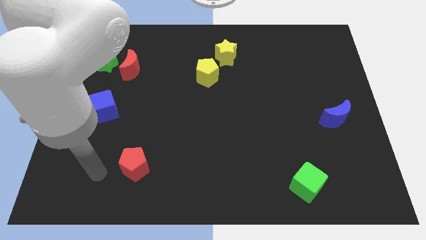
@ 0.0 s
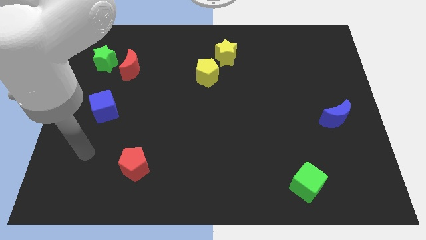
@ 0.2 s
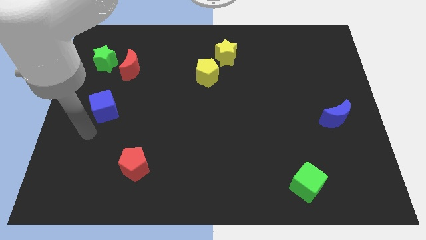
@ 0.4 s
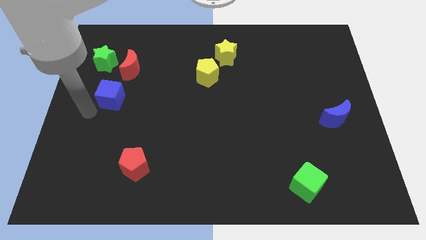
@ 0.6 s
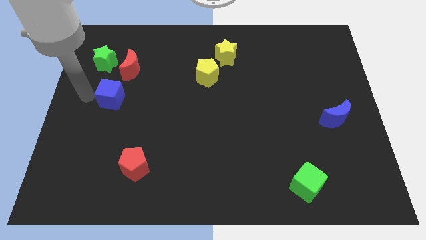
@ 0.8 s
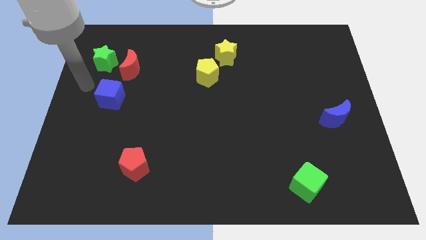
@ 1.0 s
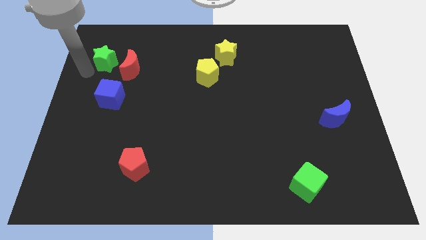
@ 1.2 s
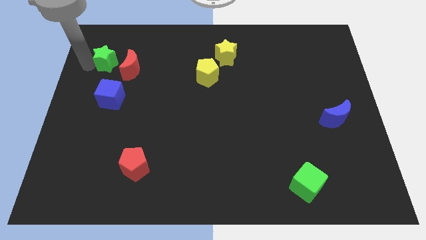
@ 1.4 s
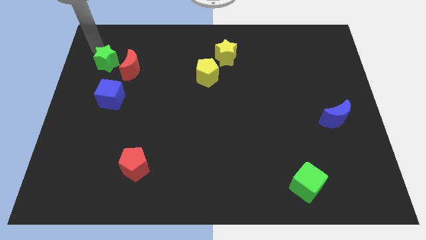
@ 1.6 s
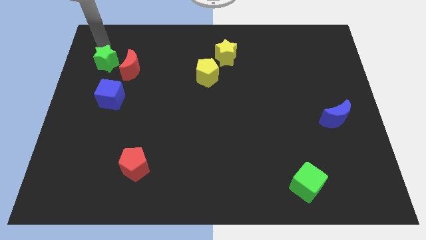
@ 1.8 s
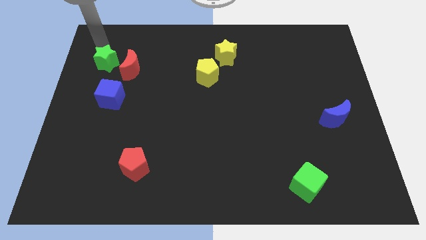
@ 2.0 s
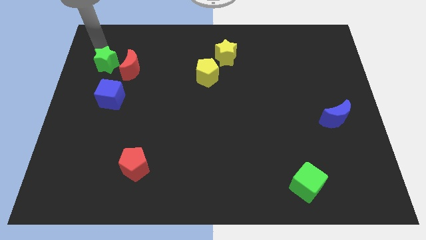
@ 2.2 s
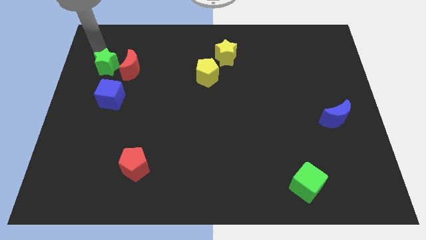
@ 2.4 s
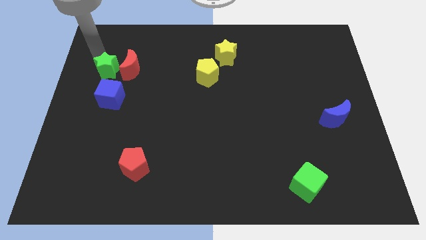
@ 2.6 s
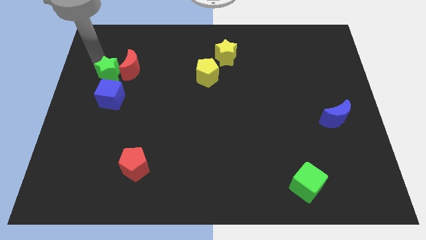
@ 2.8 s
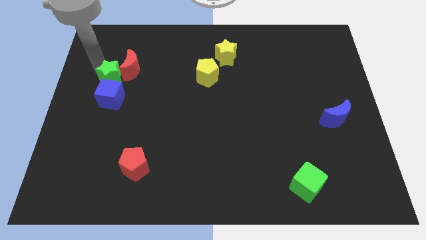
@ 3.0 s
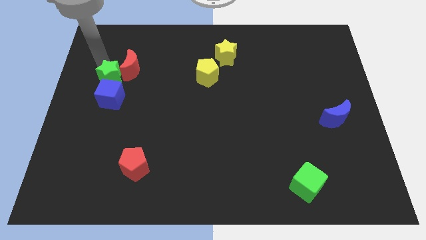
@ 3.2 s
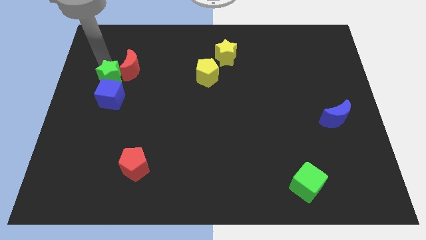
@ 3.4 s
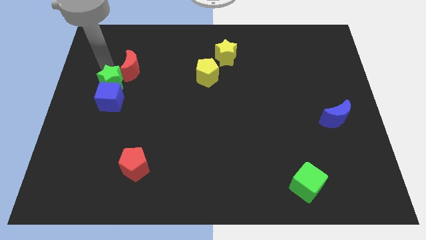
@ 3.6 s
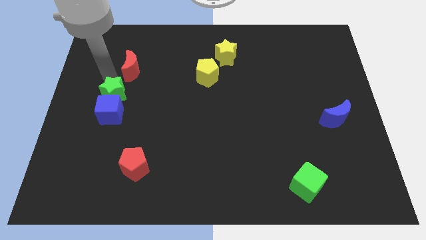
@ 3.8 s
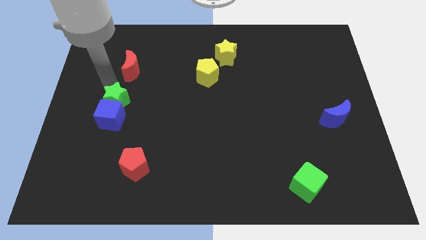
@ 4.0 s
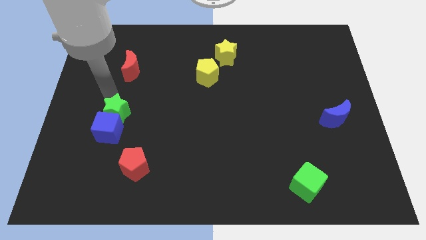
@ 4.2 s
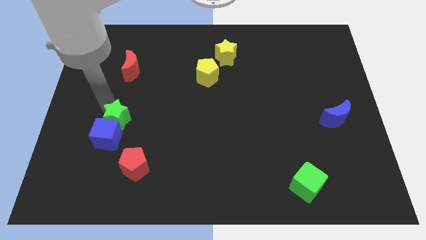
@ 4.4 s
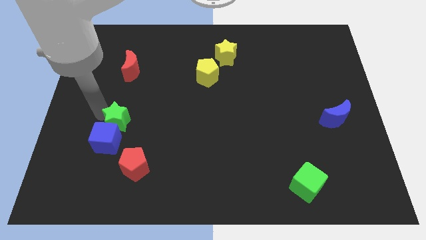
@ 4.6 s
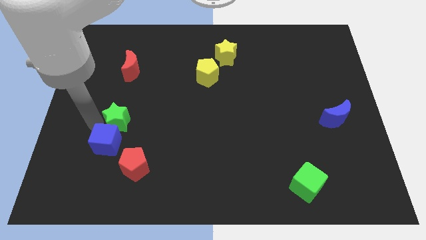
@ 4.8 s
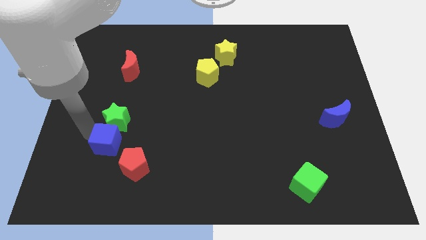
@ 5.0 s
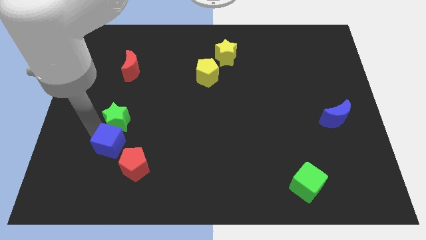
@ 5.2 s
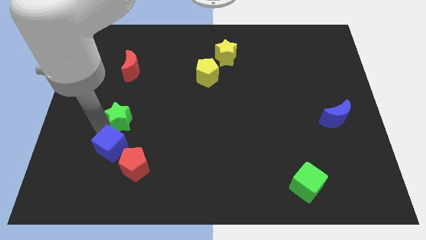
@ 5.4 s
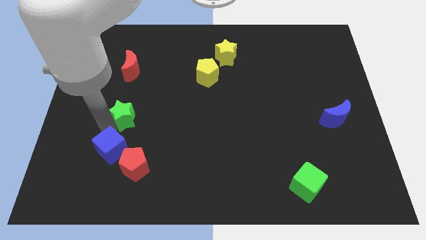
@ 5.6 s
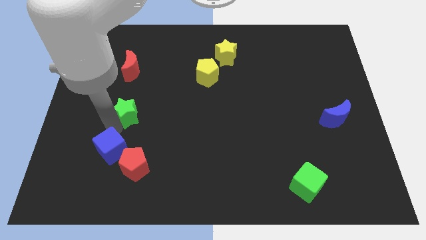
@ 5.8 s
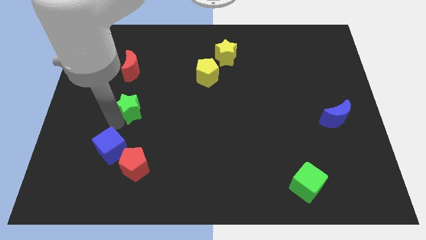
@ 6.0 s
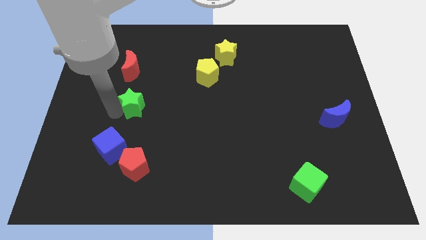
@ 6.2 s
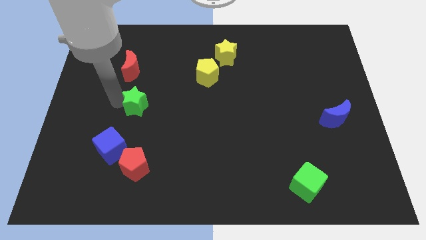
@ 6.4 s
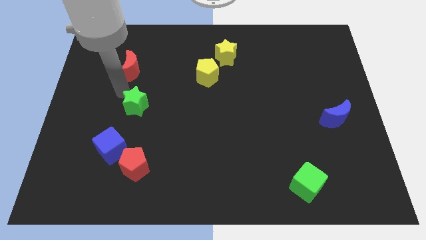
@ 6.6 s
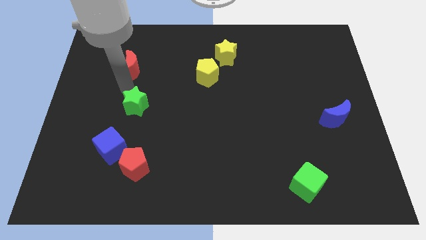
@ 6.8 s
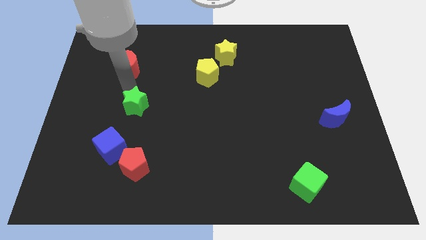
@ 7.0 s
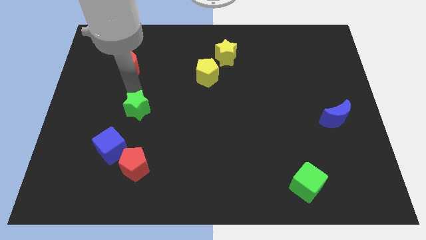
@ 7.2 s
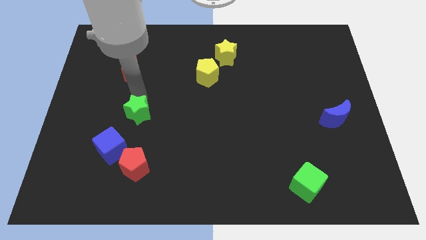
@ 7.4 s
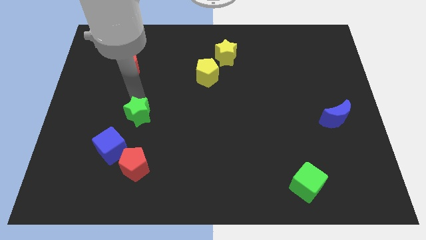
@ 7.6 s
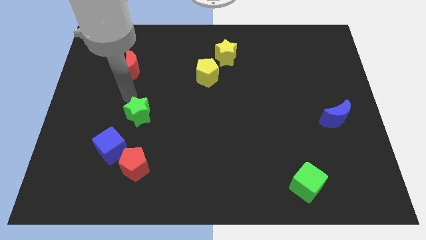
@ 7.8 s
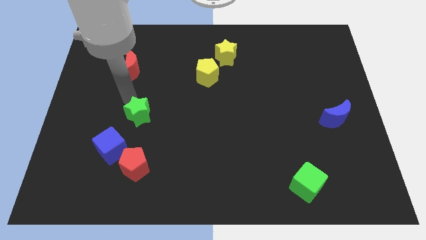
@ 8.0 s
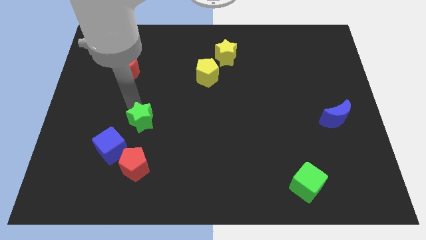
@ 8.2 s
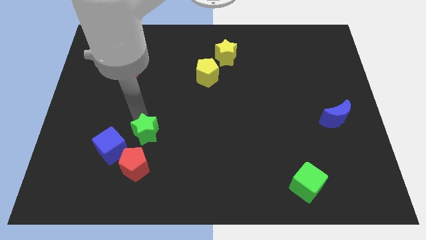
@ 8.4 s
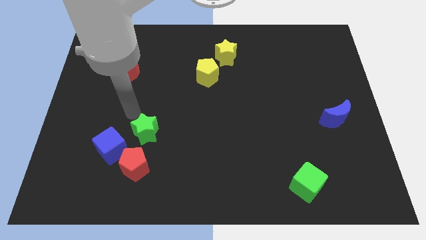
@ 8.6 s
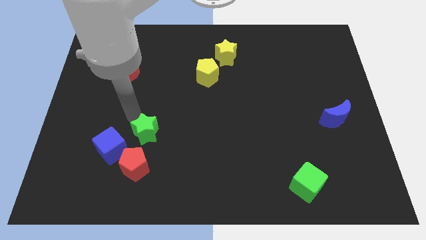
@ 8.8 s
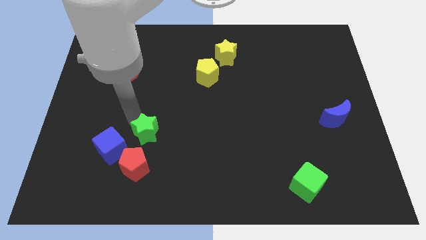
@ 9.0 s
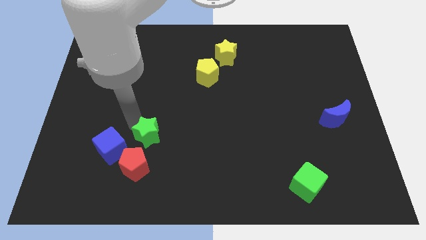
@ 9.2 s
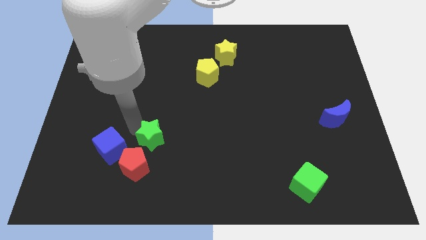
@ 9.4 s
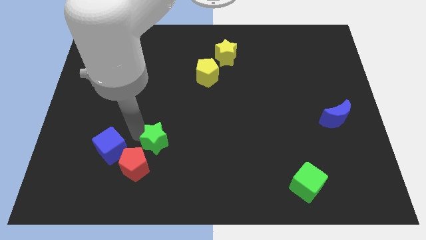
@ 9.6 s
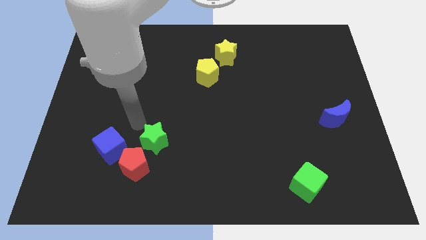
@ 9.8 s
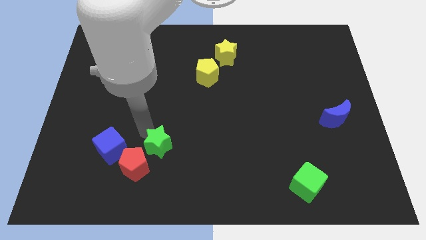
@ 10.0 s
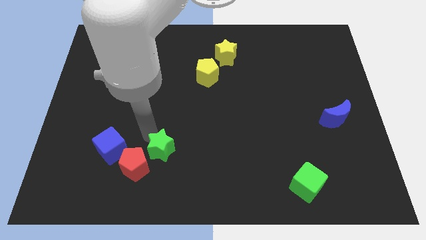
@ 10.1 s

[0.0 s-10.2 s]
move the green star right of the red pentagon

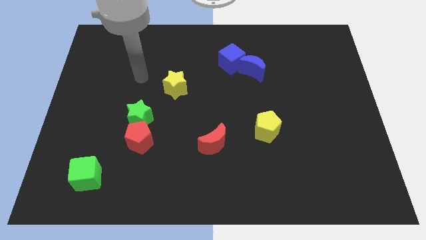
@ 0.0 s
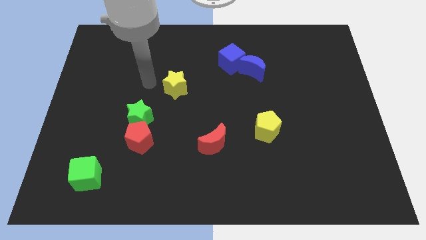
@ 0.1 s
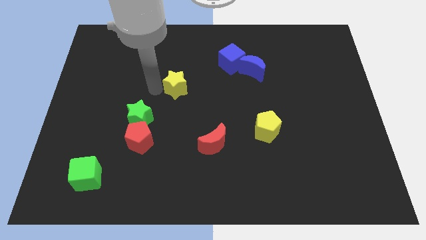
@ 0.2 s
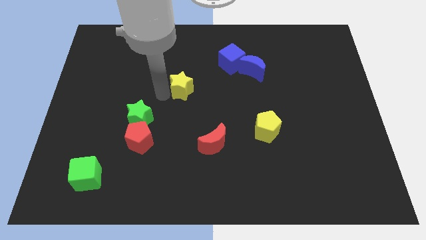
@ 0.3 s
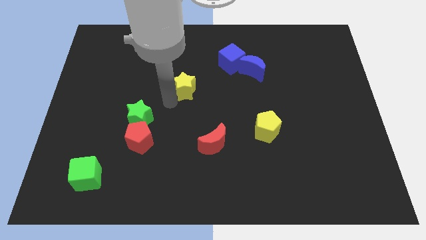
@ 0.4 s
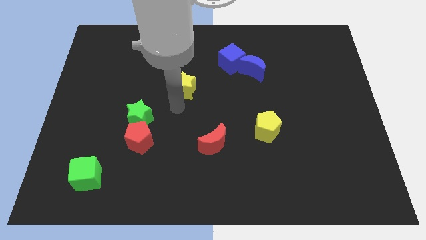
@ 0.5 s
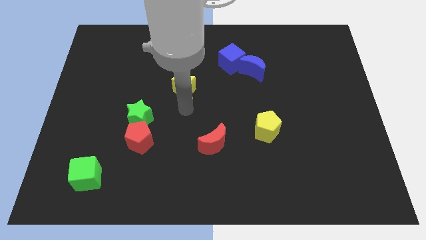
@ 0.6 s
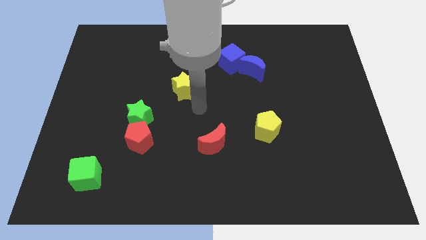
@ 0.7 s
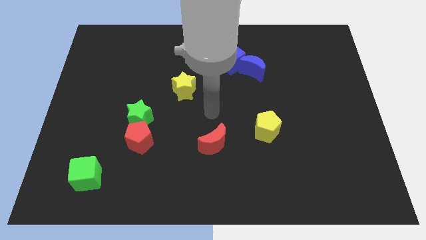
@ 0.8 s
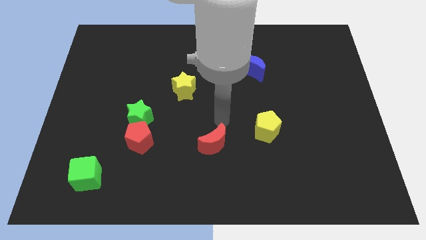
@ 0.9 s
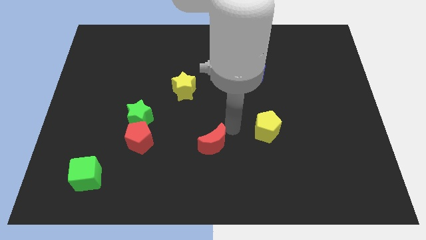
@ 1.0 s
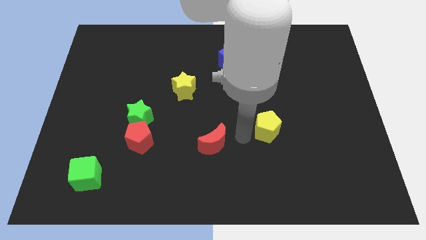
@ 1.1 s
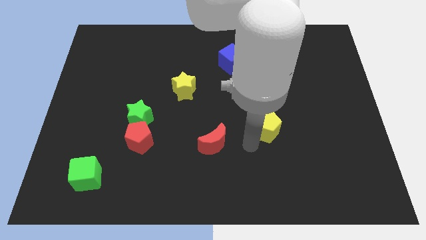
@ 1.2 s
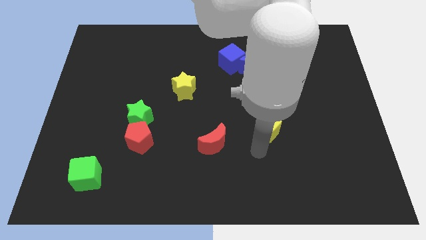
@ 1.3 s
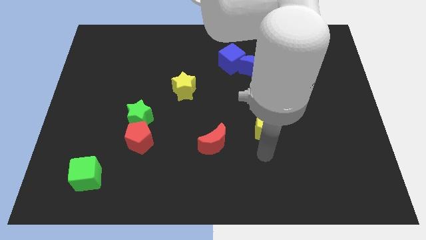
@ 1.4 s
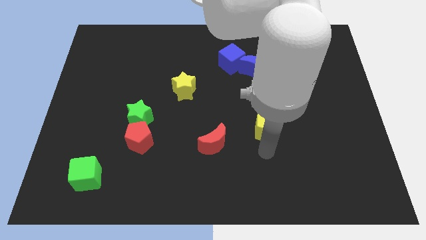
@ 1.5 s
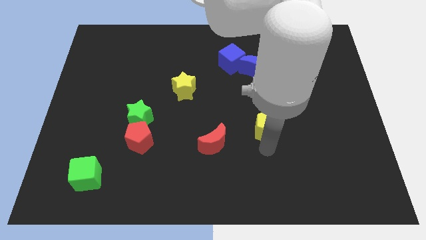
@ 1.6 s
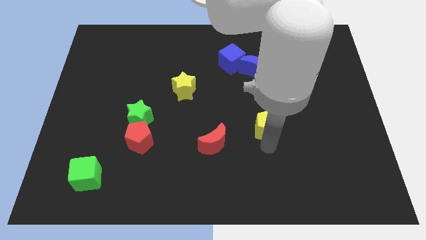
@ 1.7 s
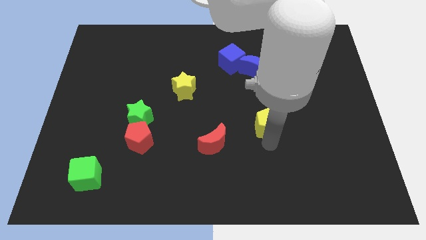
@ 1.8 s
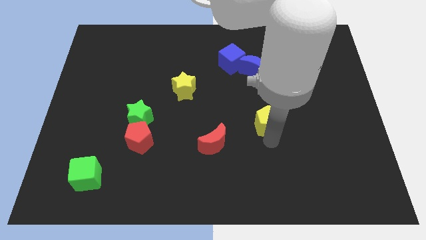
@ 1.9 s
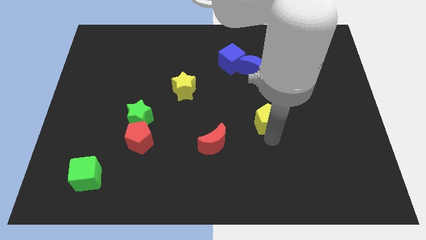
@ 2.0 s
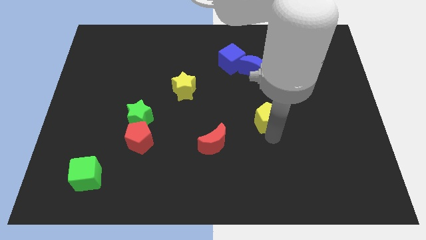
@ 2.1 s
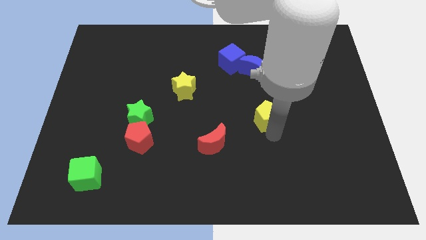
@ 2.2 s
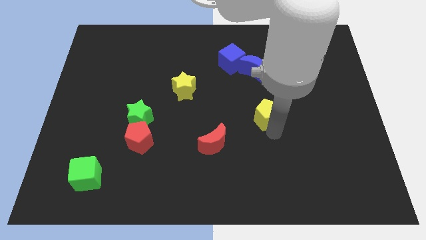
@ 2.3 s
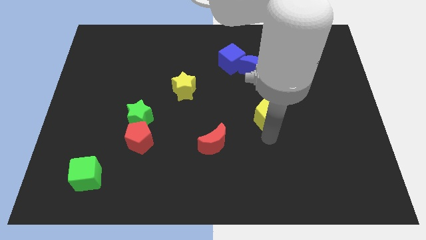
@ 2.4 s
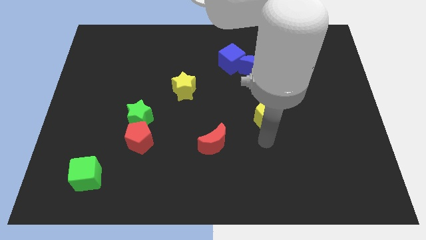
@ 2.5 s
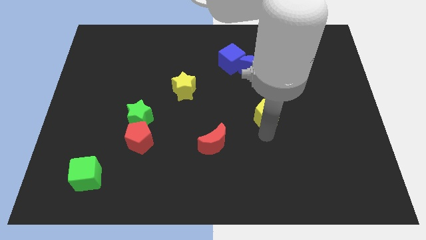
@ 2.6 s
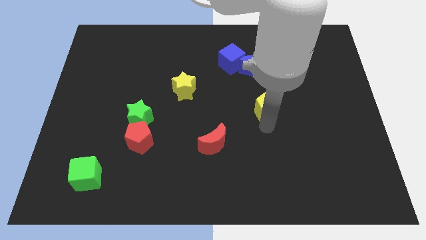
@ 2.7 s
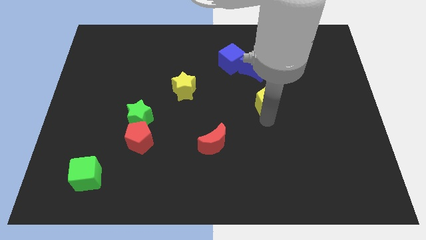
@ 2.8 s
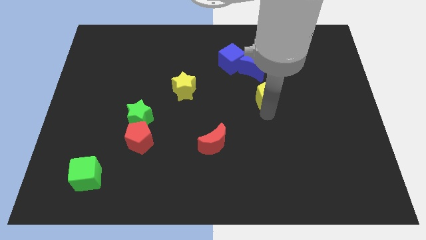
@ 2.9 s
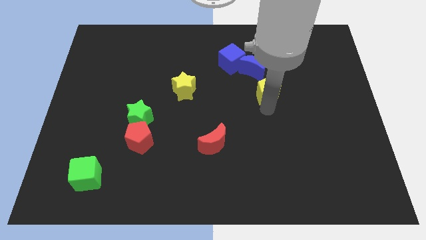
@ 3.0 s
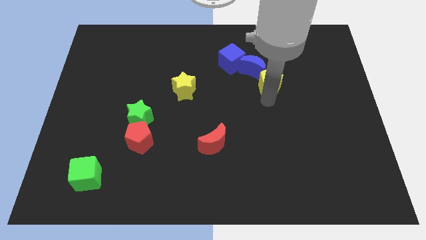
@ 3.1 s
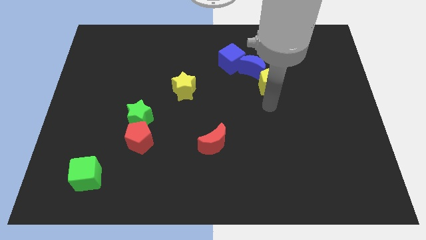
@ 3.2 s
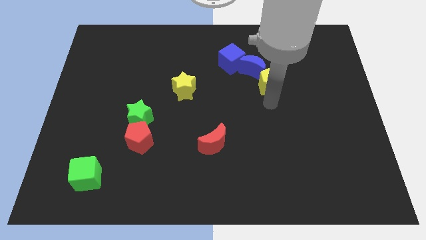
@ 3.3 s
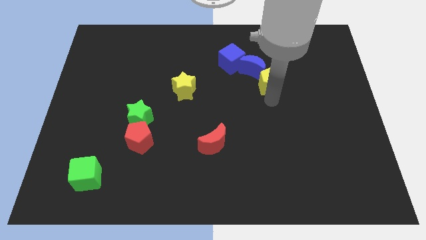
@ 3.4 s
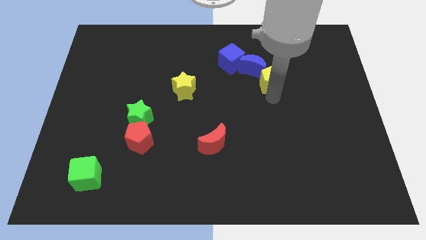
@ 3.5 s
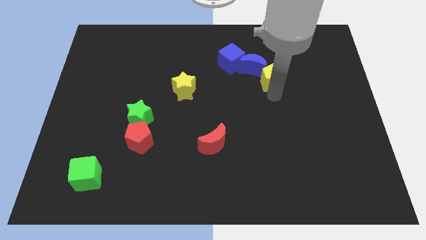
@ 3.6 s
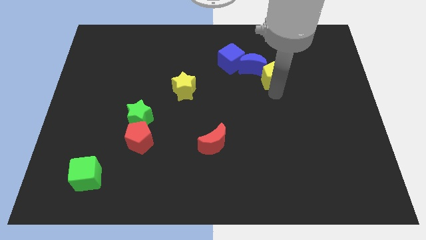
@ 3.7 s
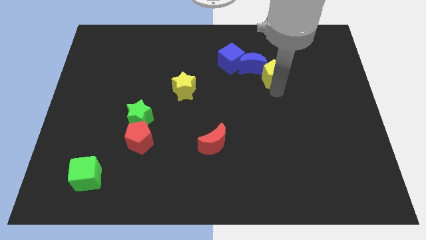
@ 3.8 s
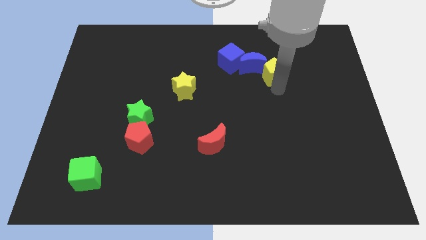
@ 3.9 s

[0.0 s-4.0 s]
slide the yellow pentagon to the right side of the blue cube
